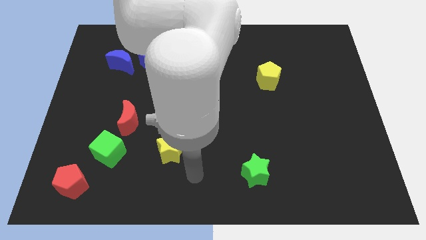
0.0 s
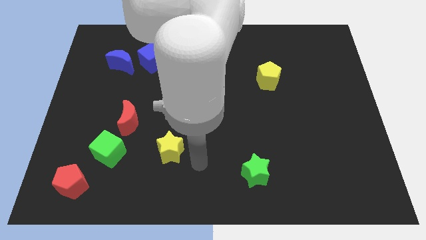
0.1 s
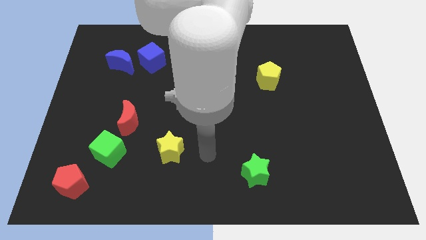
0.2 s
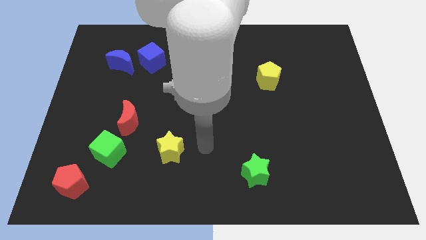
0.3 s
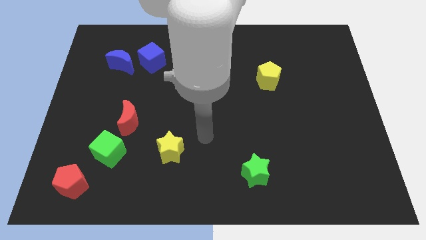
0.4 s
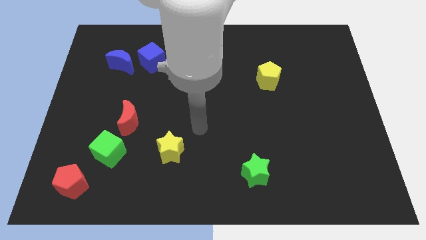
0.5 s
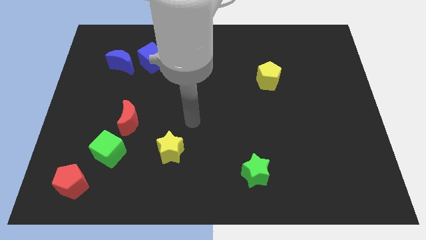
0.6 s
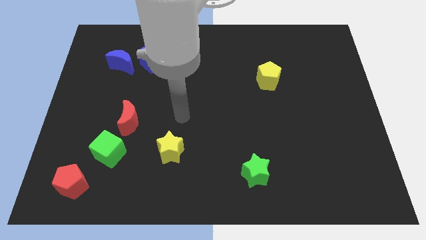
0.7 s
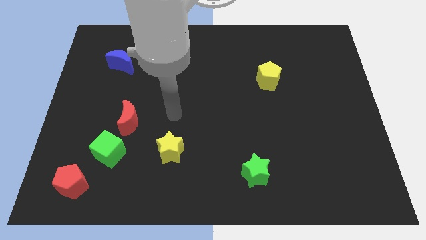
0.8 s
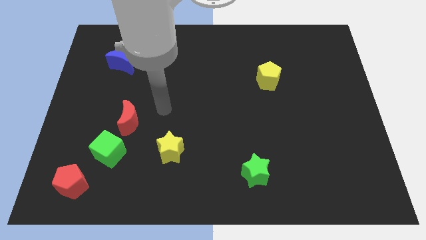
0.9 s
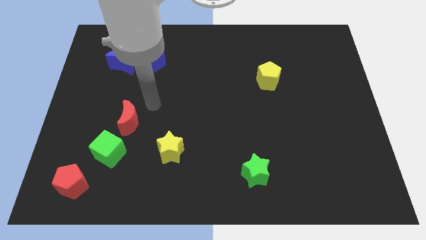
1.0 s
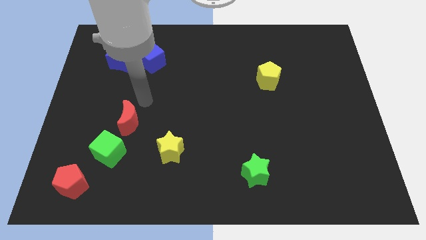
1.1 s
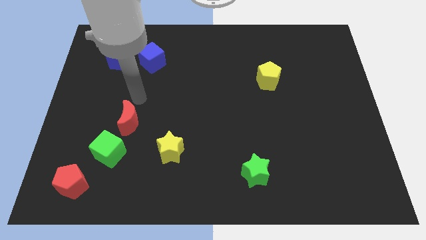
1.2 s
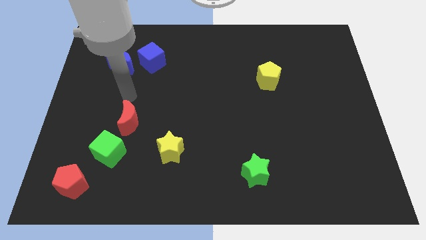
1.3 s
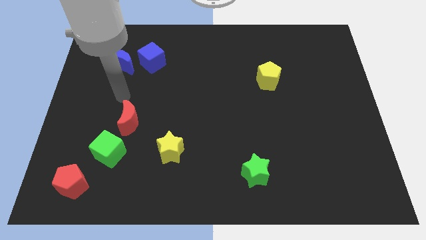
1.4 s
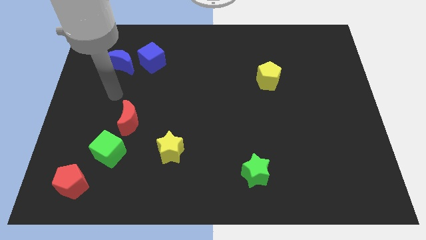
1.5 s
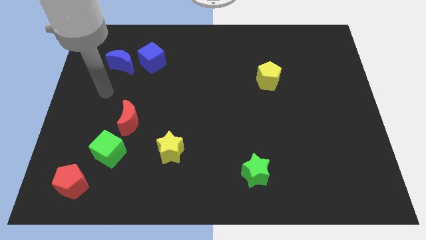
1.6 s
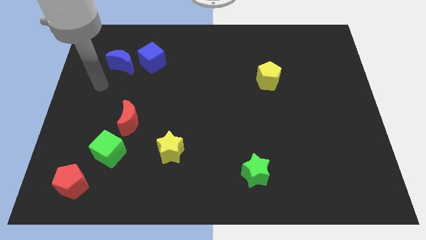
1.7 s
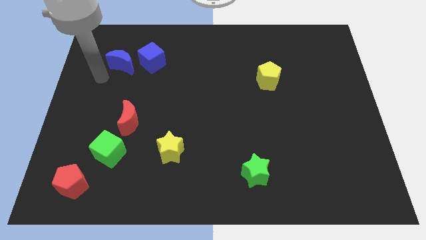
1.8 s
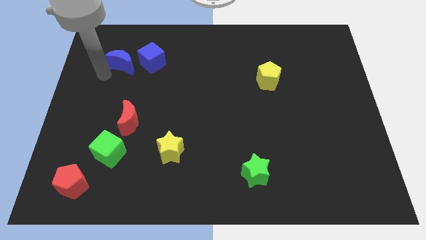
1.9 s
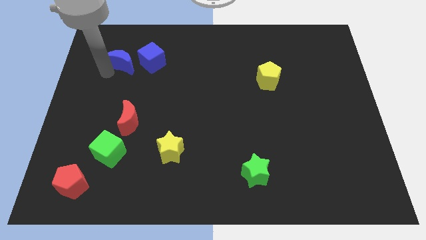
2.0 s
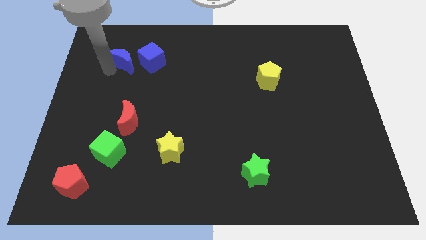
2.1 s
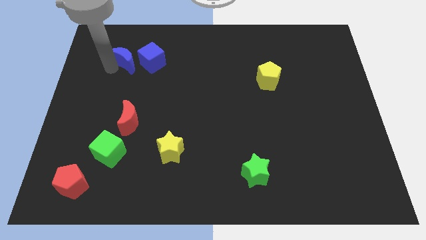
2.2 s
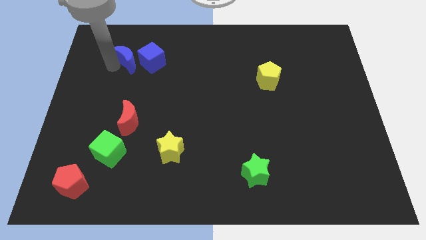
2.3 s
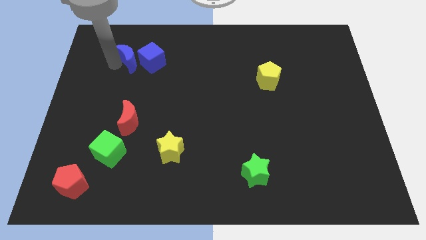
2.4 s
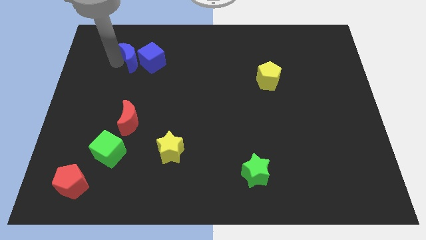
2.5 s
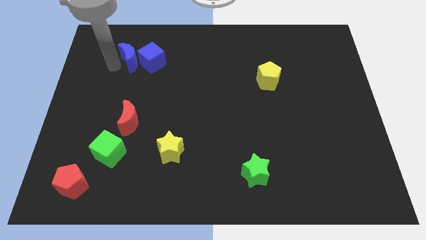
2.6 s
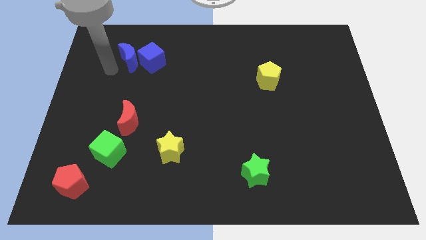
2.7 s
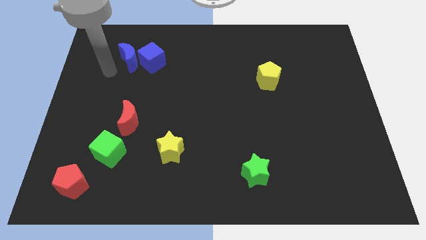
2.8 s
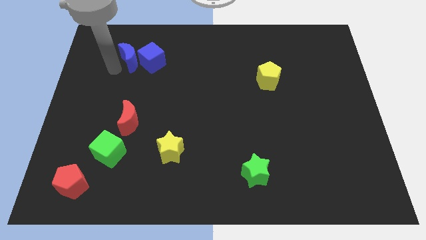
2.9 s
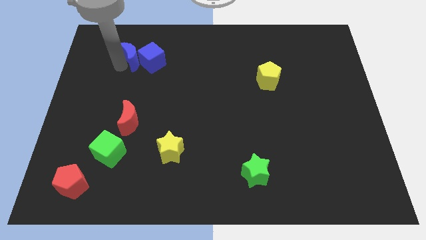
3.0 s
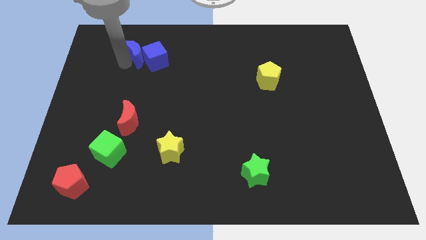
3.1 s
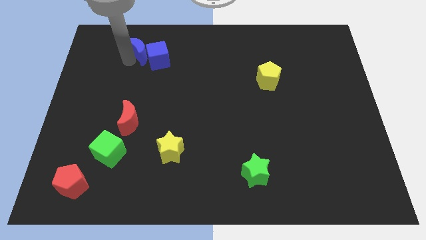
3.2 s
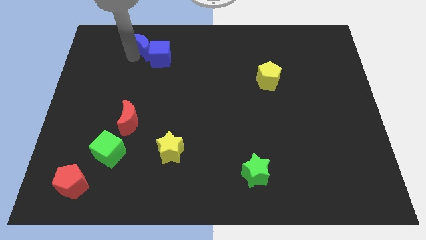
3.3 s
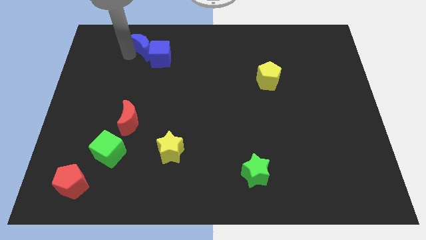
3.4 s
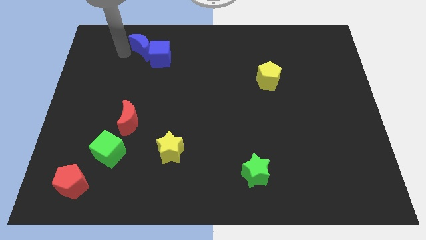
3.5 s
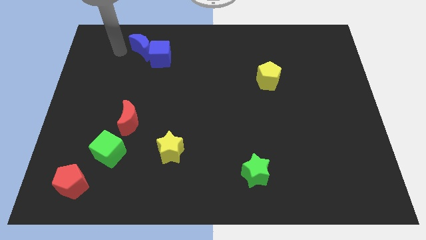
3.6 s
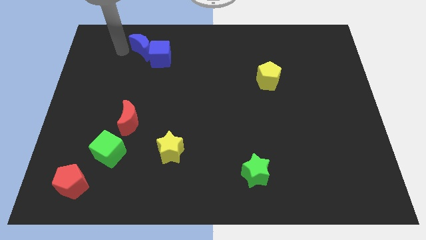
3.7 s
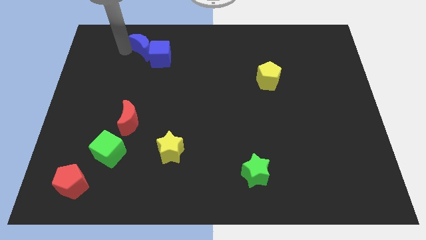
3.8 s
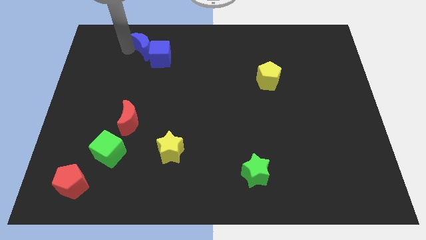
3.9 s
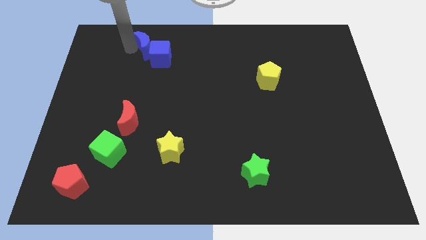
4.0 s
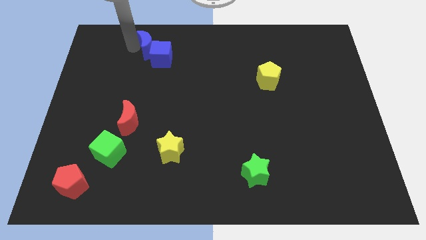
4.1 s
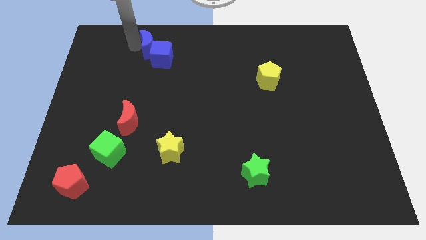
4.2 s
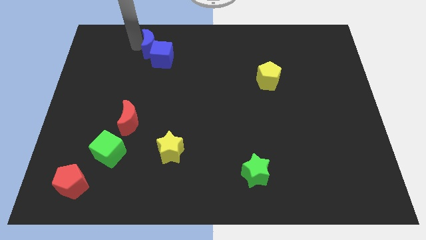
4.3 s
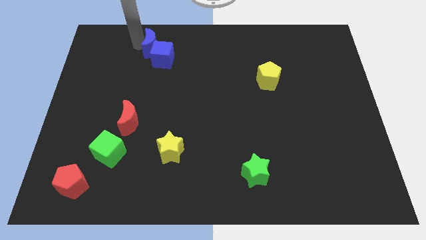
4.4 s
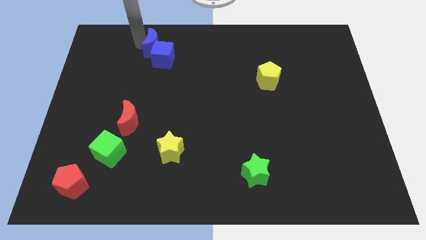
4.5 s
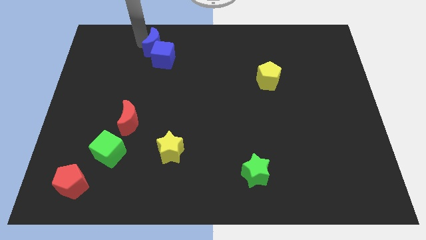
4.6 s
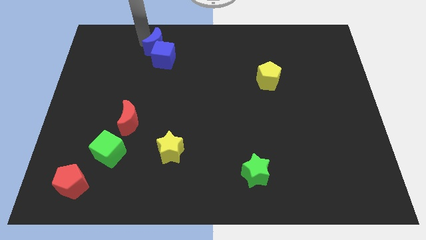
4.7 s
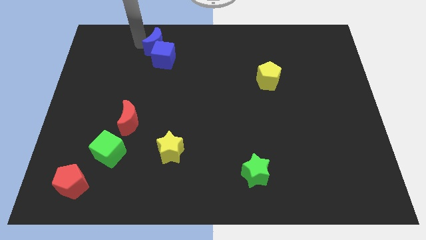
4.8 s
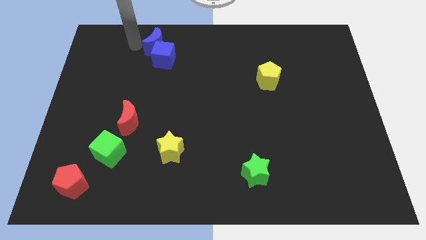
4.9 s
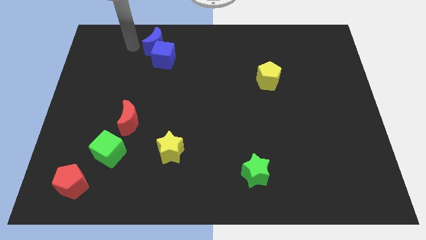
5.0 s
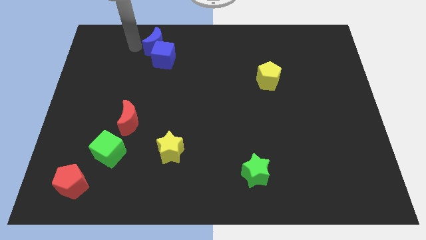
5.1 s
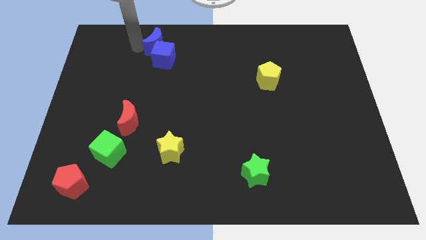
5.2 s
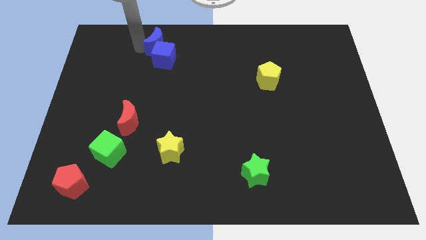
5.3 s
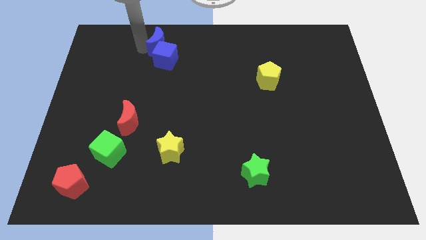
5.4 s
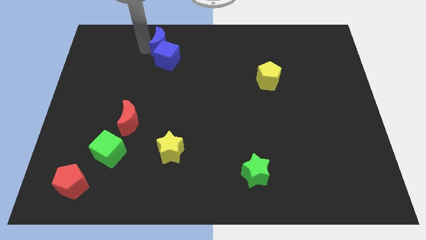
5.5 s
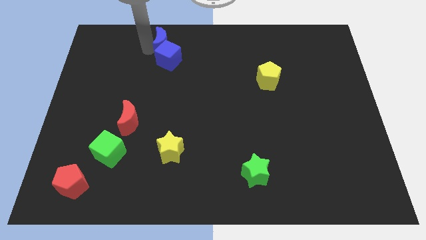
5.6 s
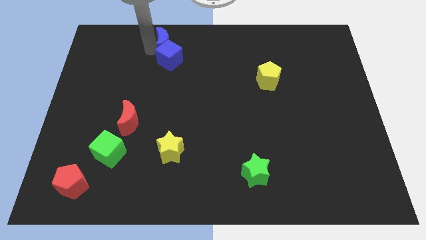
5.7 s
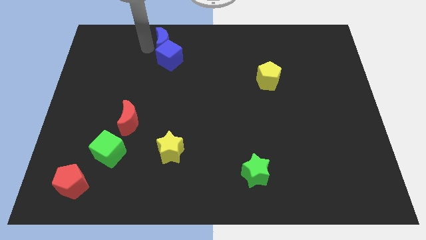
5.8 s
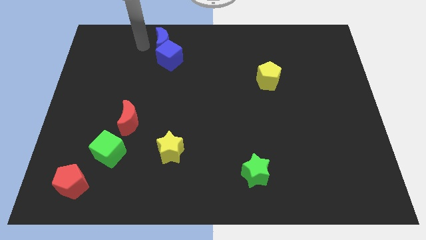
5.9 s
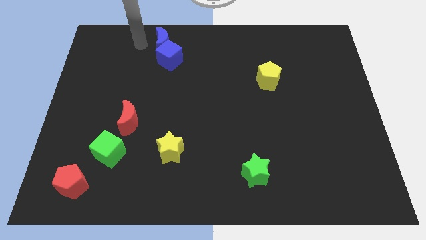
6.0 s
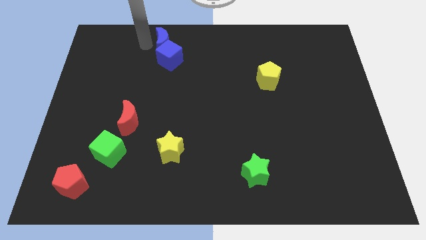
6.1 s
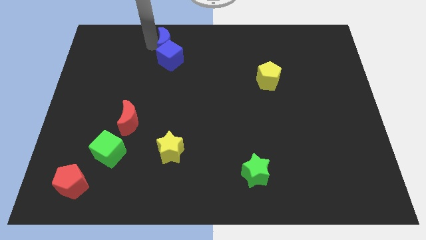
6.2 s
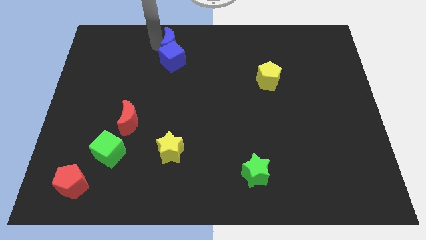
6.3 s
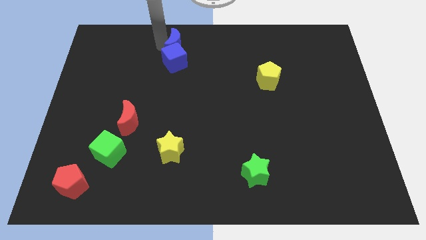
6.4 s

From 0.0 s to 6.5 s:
move the blue moon to the top

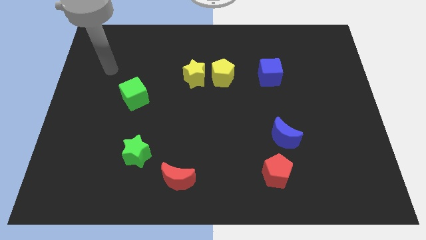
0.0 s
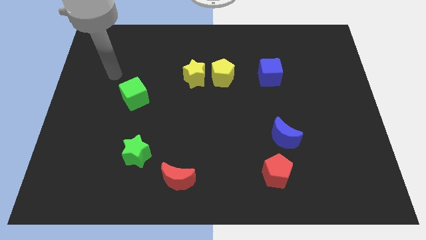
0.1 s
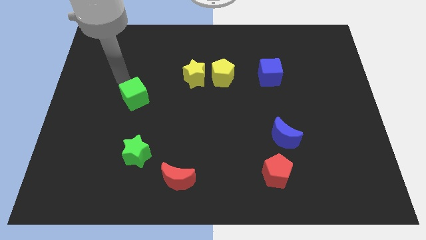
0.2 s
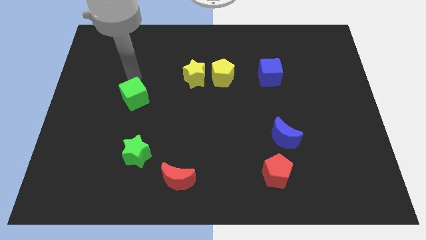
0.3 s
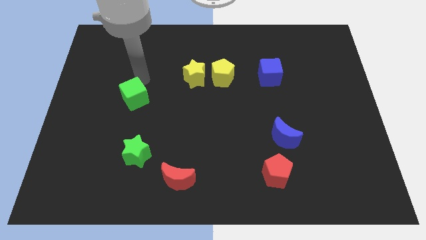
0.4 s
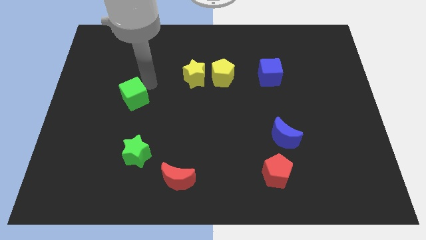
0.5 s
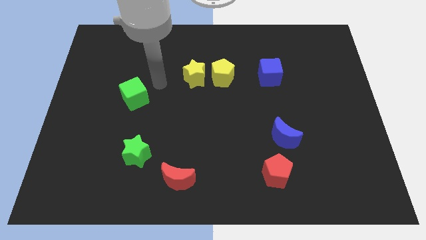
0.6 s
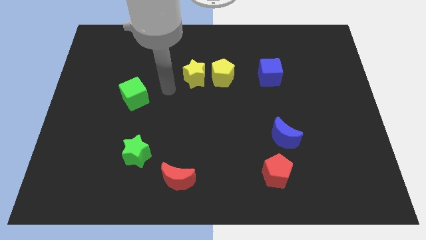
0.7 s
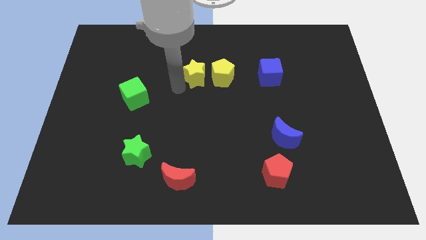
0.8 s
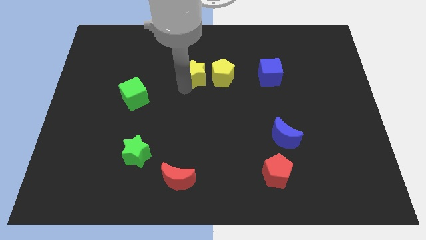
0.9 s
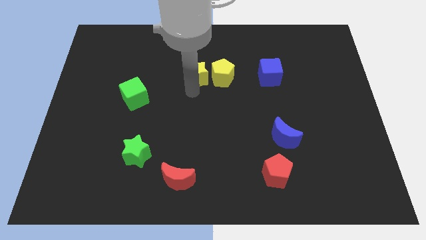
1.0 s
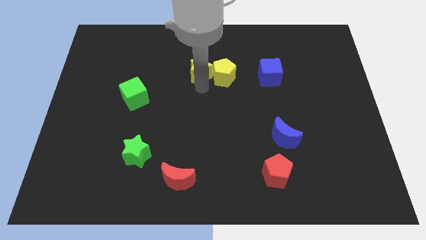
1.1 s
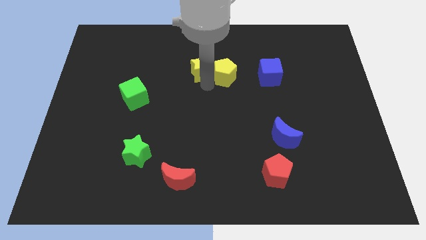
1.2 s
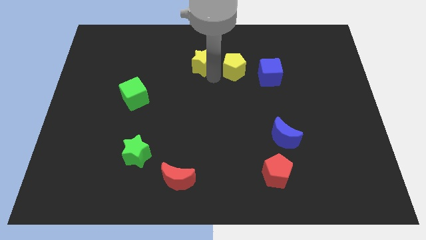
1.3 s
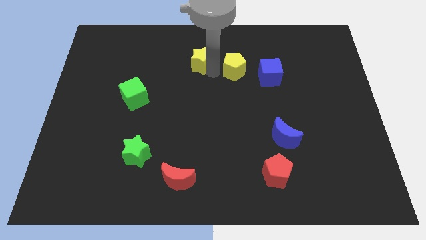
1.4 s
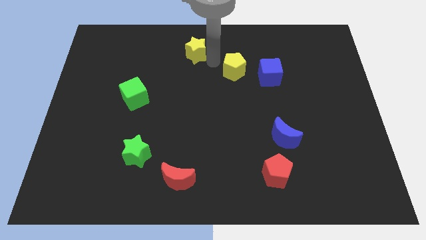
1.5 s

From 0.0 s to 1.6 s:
slide the yellow star to the top
